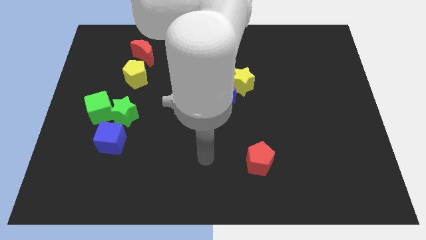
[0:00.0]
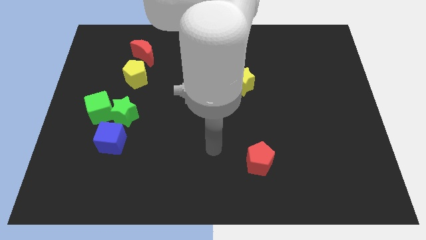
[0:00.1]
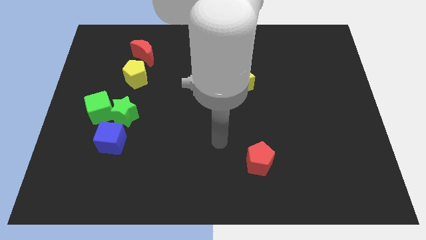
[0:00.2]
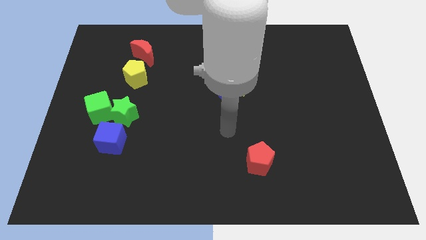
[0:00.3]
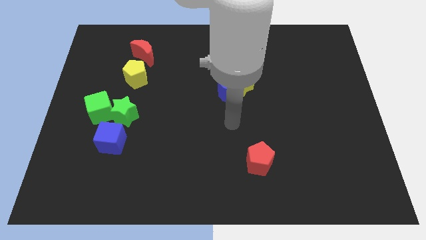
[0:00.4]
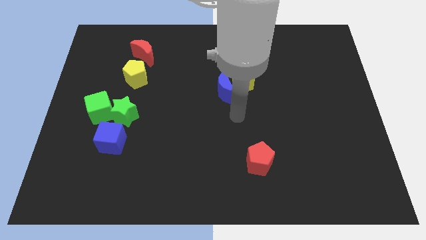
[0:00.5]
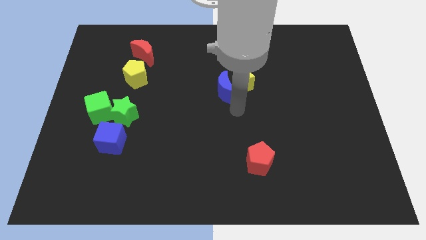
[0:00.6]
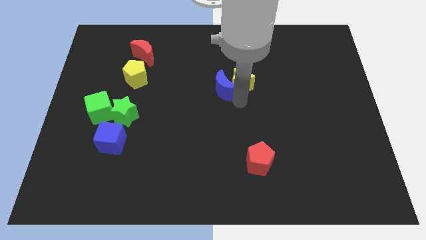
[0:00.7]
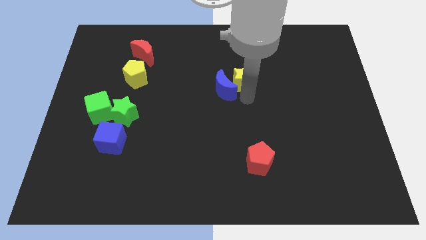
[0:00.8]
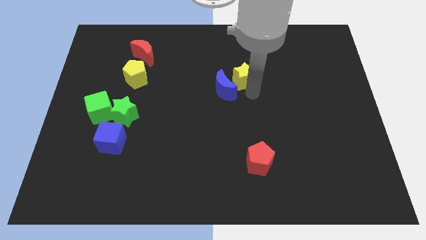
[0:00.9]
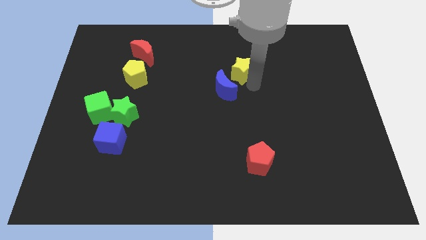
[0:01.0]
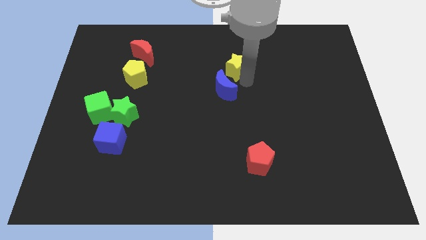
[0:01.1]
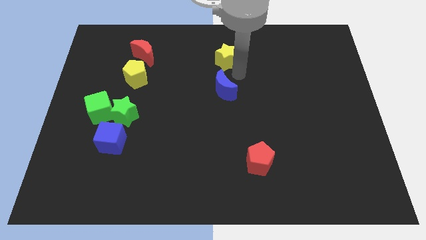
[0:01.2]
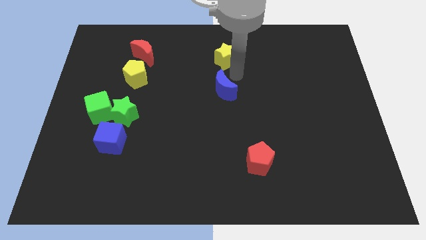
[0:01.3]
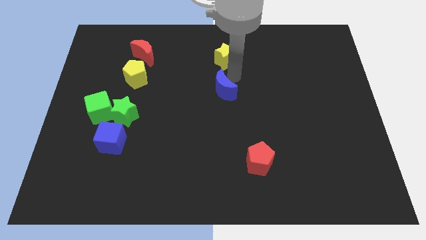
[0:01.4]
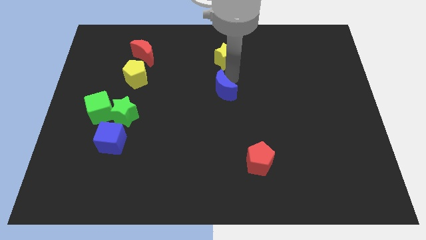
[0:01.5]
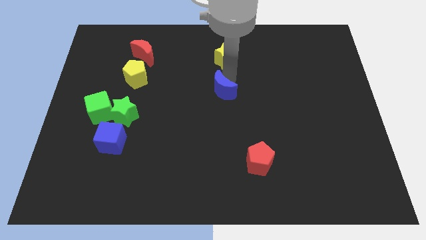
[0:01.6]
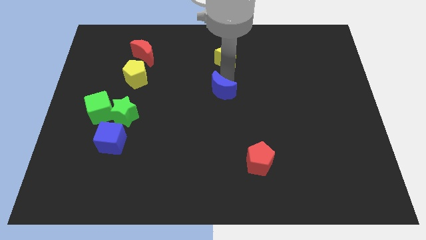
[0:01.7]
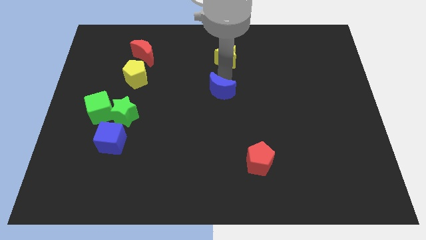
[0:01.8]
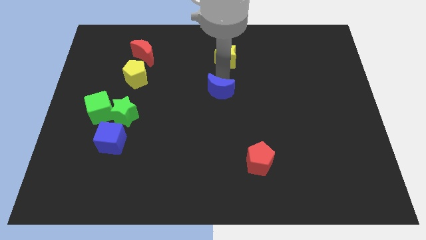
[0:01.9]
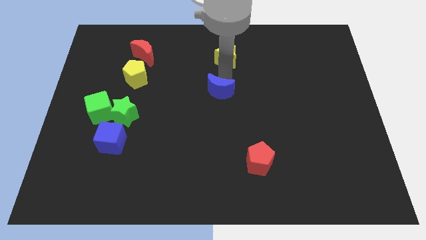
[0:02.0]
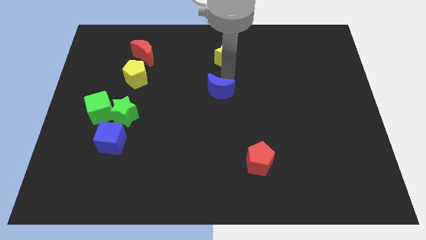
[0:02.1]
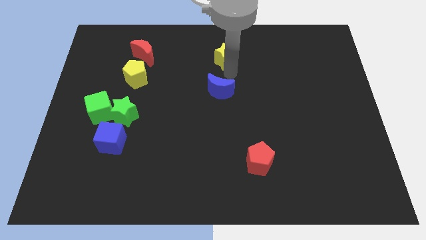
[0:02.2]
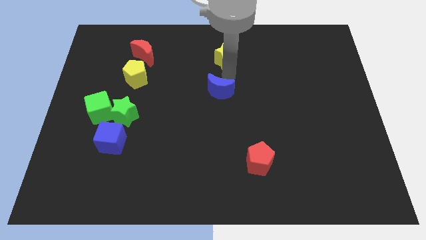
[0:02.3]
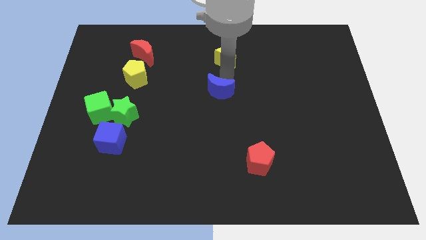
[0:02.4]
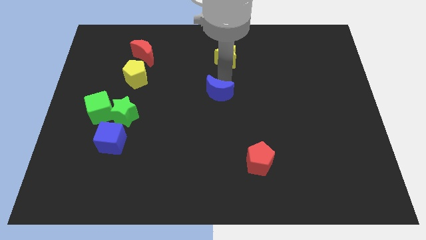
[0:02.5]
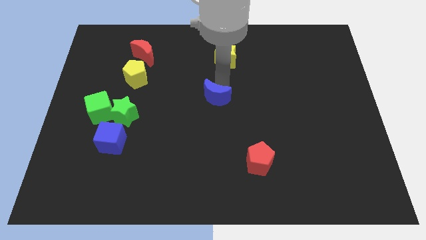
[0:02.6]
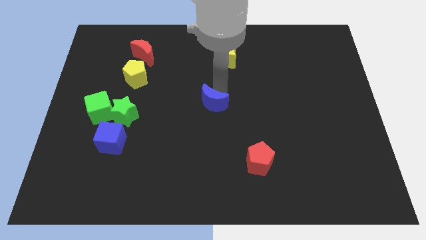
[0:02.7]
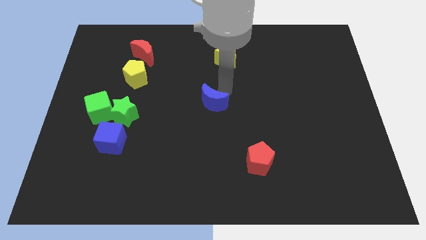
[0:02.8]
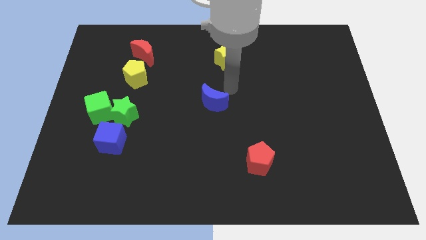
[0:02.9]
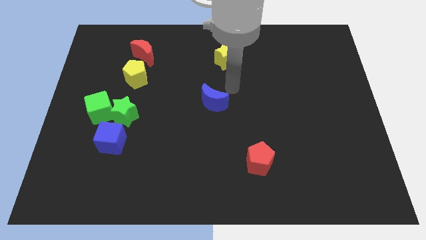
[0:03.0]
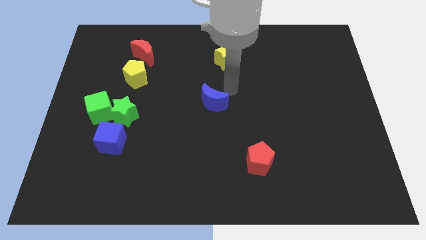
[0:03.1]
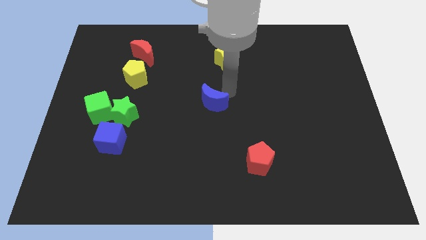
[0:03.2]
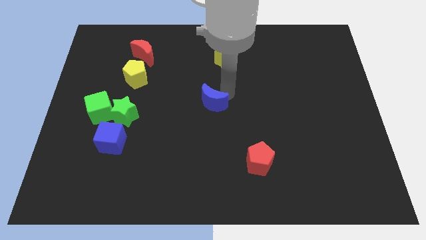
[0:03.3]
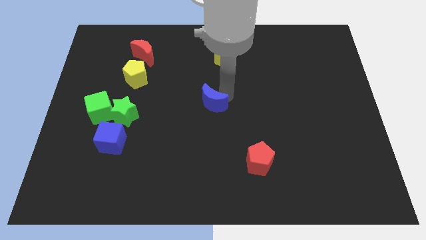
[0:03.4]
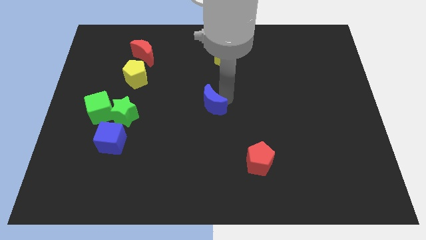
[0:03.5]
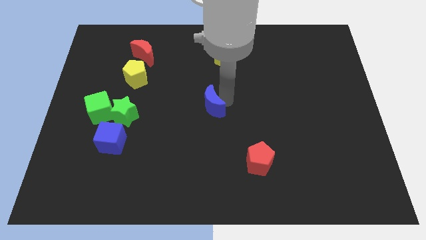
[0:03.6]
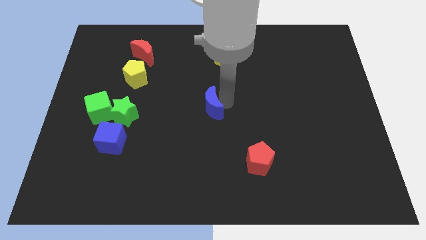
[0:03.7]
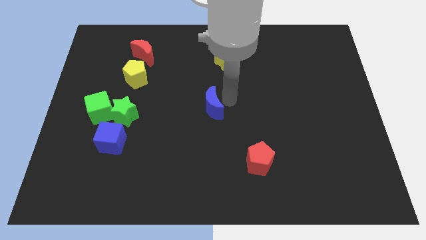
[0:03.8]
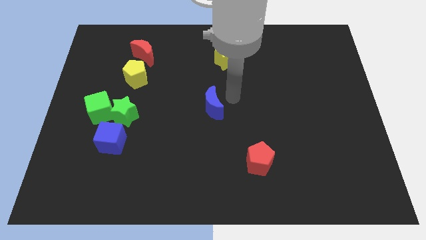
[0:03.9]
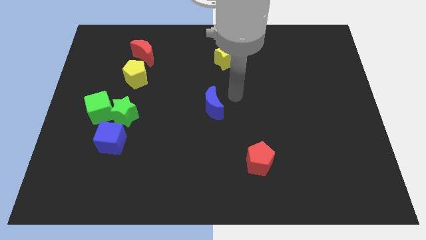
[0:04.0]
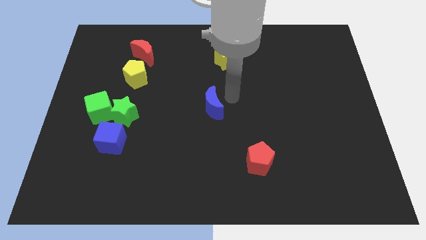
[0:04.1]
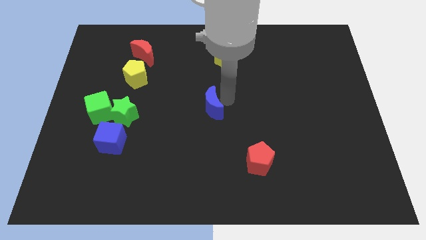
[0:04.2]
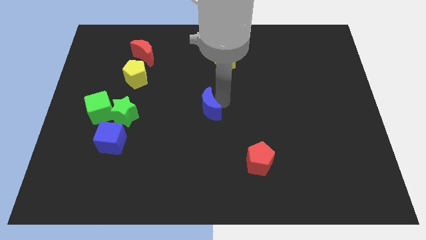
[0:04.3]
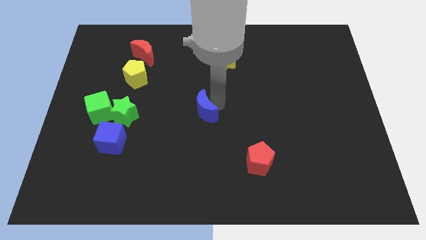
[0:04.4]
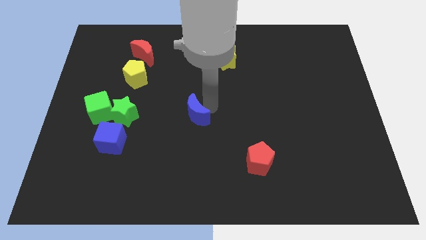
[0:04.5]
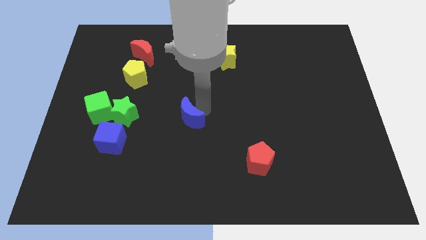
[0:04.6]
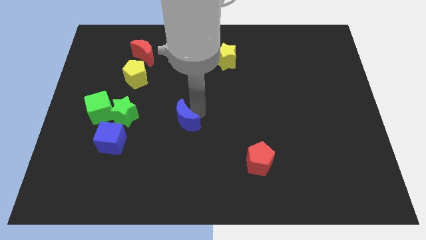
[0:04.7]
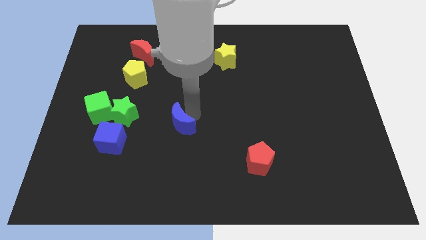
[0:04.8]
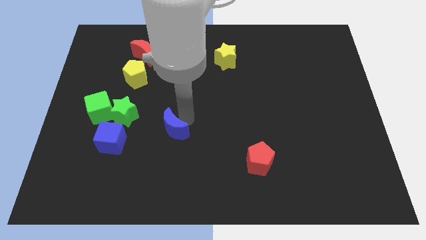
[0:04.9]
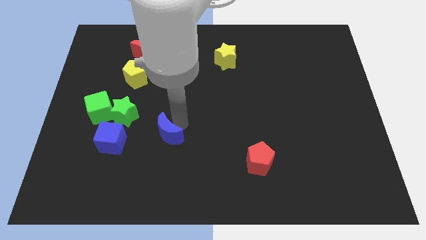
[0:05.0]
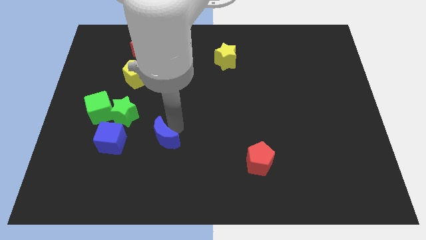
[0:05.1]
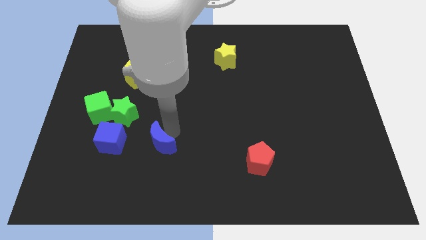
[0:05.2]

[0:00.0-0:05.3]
move the blue moon down and to the left diagonally

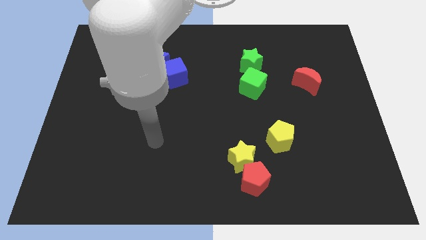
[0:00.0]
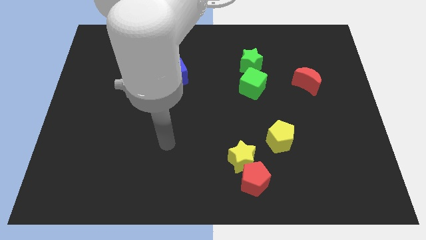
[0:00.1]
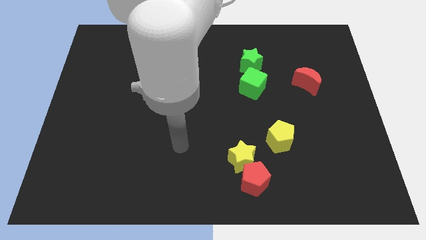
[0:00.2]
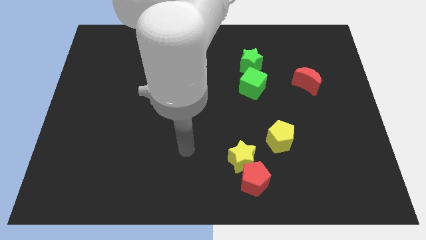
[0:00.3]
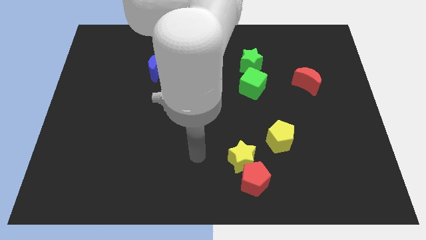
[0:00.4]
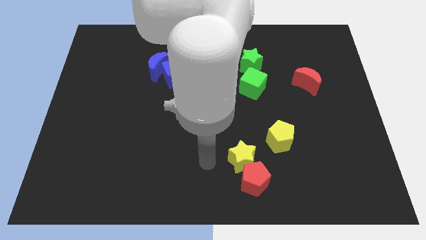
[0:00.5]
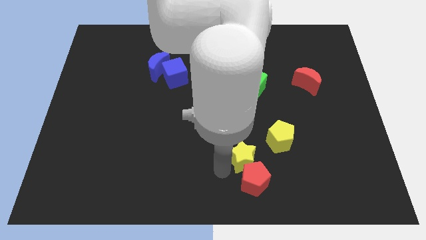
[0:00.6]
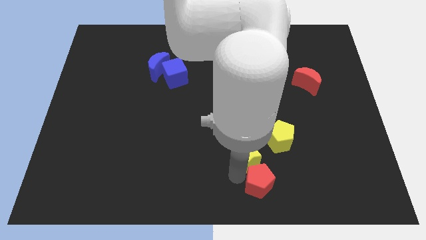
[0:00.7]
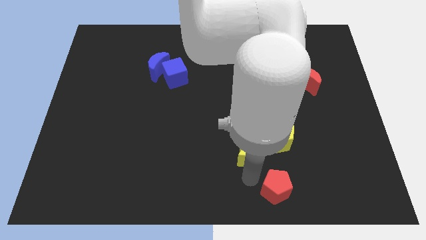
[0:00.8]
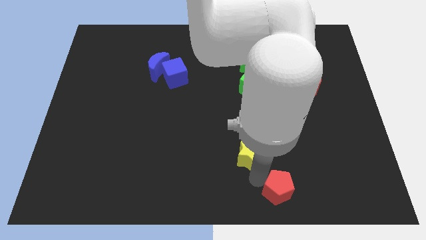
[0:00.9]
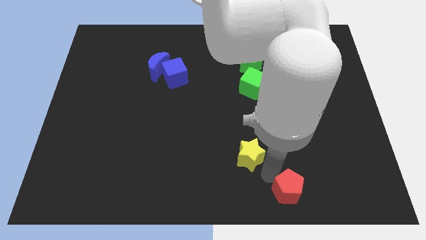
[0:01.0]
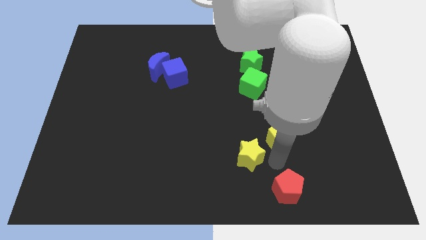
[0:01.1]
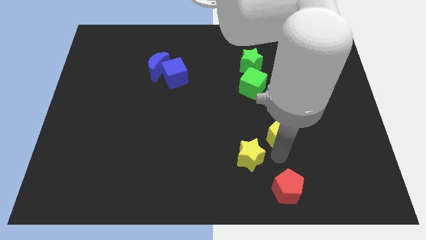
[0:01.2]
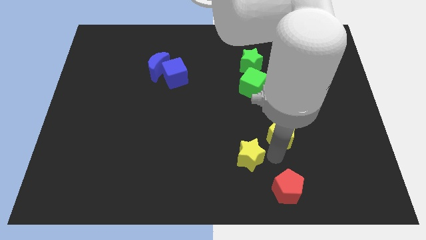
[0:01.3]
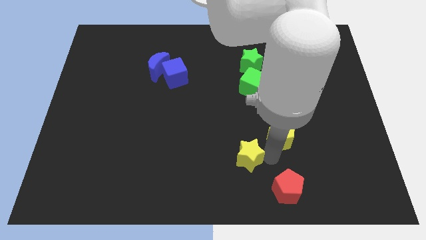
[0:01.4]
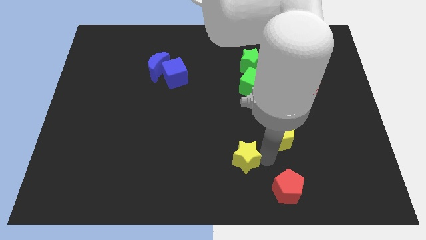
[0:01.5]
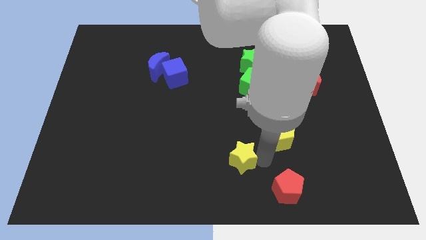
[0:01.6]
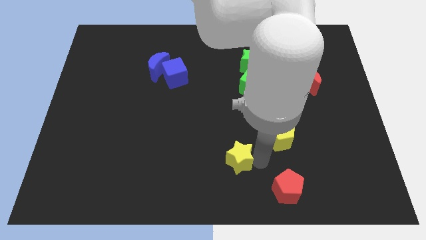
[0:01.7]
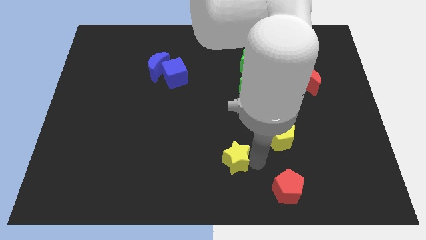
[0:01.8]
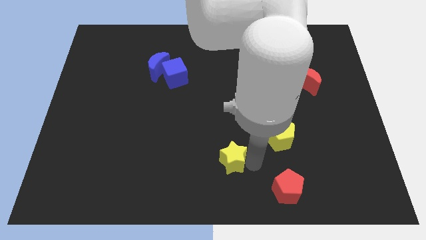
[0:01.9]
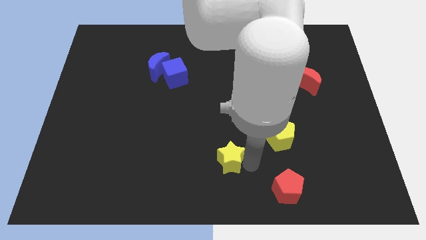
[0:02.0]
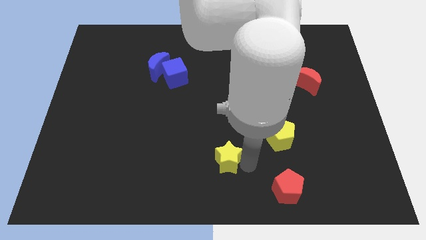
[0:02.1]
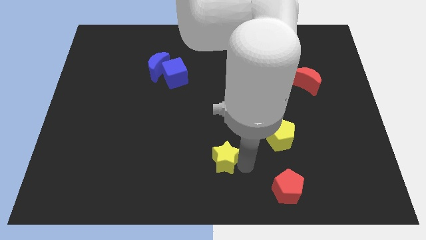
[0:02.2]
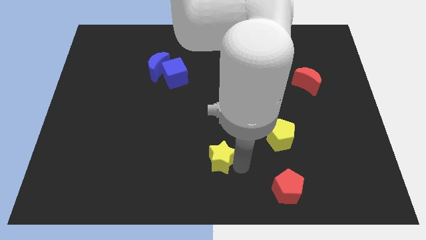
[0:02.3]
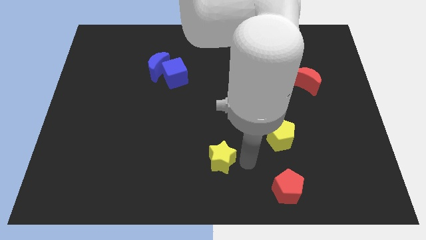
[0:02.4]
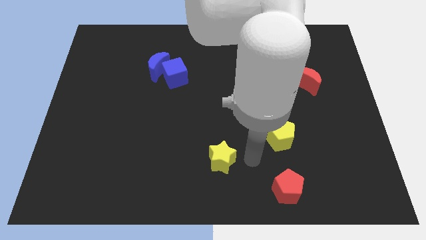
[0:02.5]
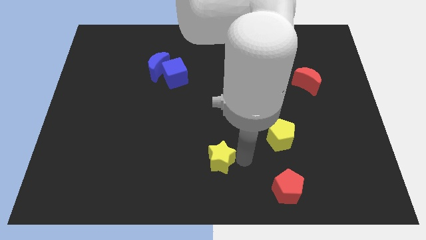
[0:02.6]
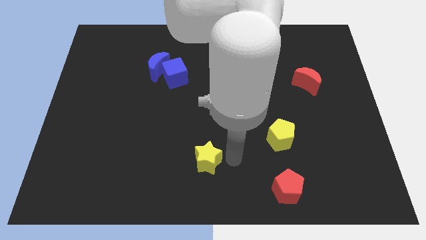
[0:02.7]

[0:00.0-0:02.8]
slightly slide the yellow star left
